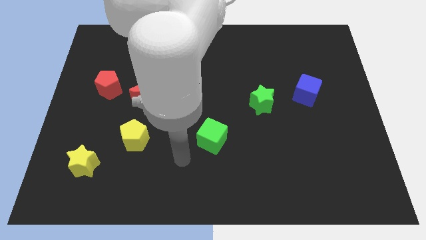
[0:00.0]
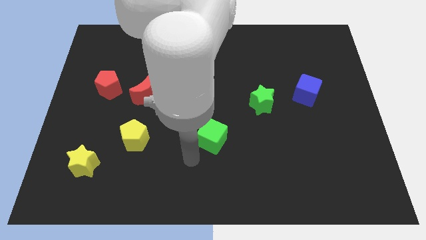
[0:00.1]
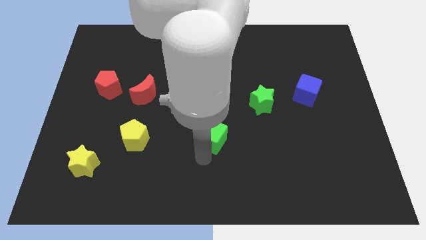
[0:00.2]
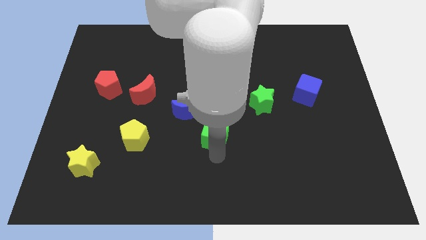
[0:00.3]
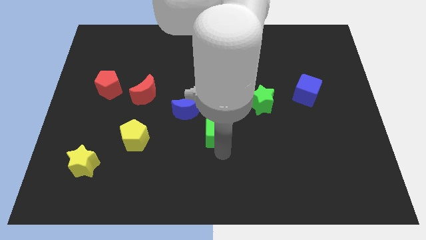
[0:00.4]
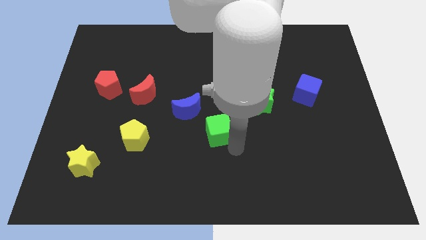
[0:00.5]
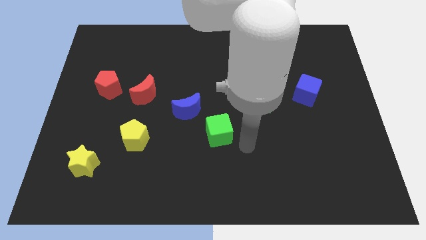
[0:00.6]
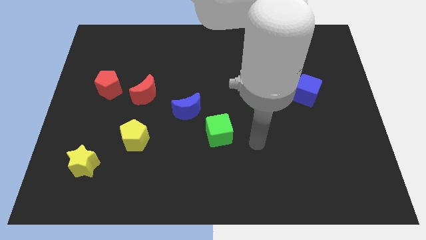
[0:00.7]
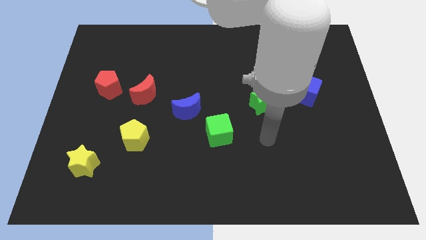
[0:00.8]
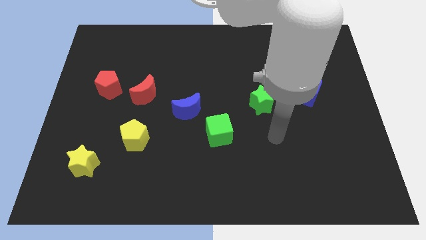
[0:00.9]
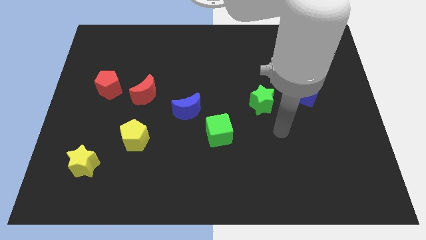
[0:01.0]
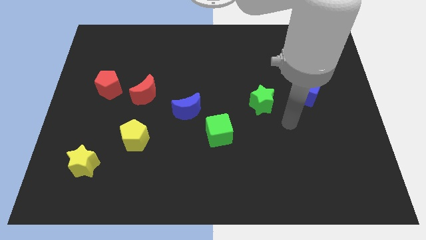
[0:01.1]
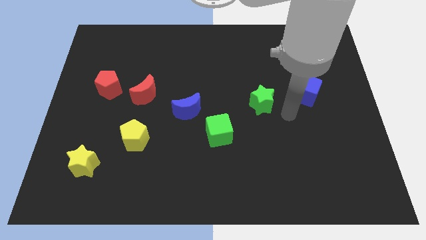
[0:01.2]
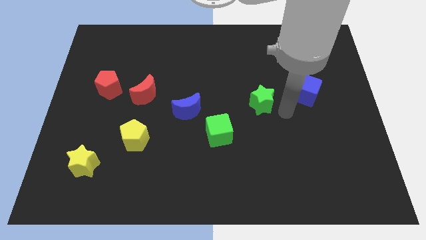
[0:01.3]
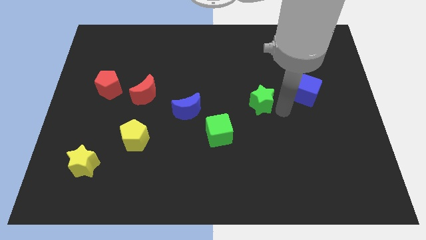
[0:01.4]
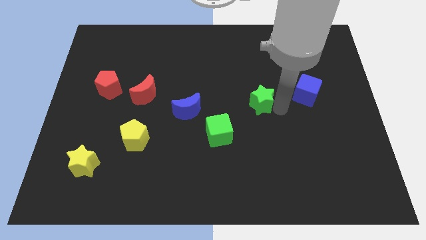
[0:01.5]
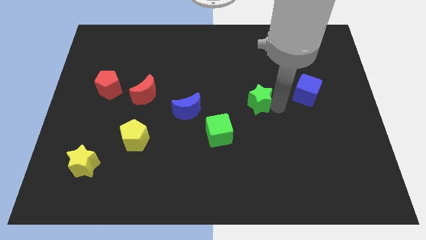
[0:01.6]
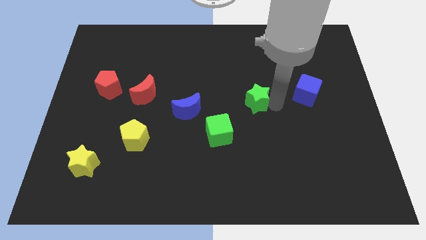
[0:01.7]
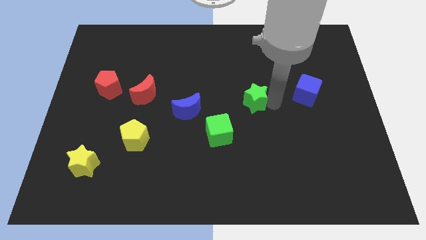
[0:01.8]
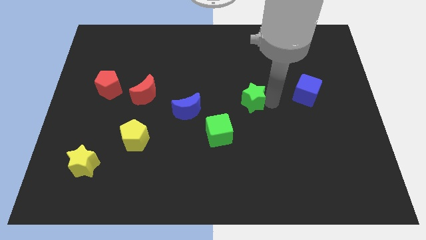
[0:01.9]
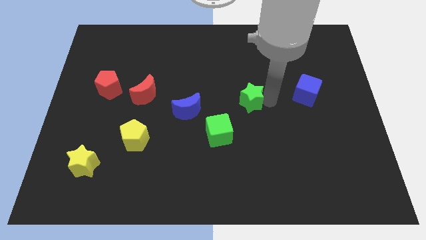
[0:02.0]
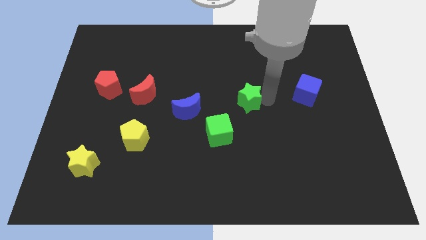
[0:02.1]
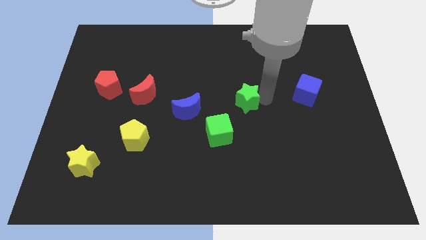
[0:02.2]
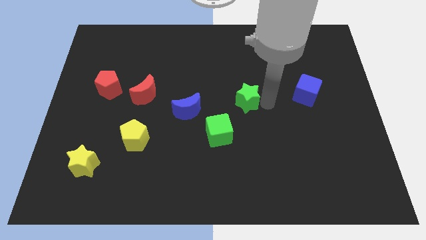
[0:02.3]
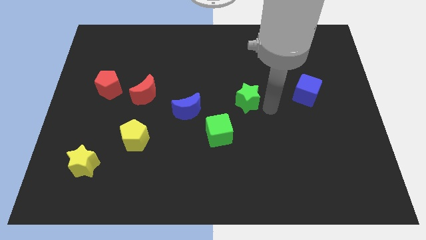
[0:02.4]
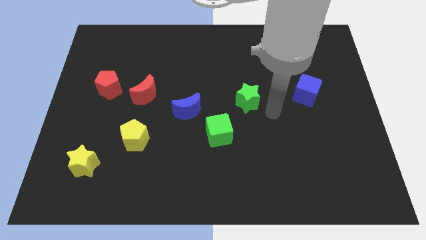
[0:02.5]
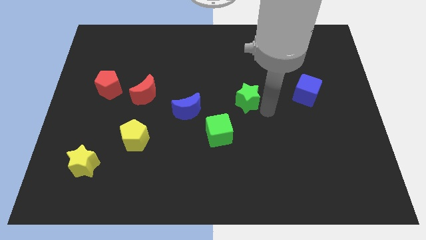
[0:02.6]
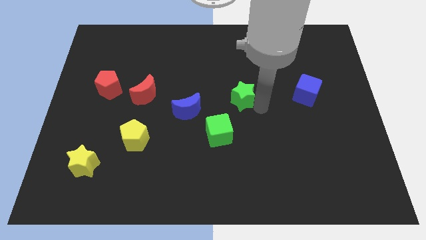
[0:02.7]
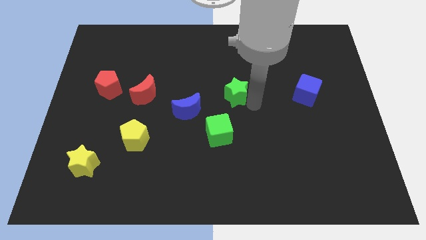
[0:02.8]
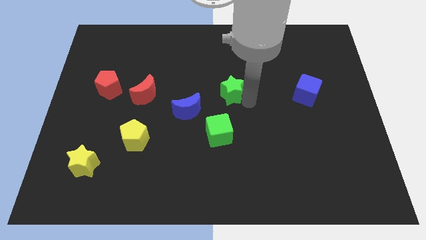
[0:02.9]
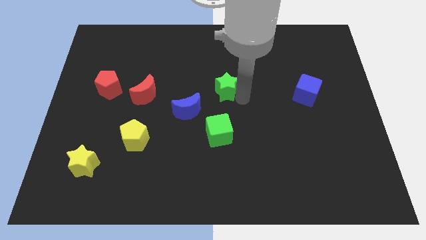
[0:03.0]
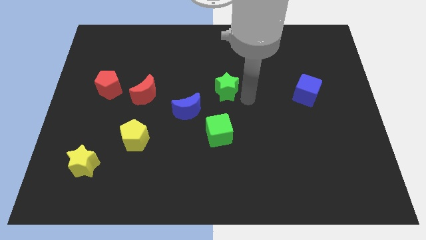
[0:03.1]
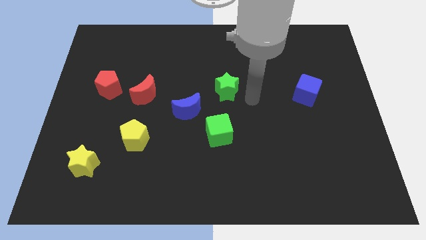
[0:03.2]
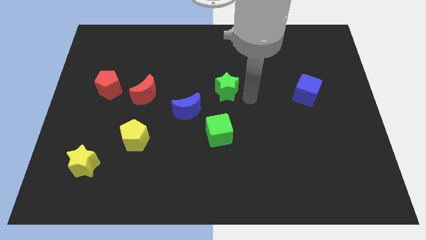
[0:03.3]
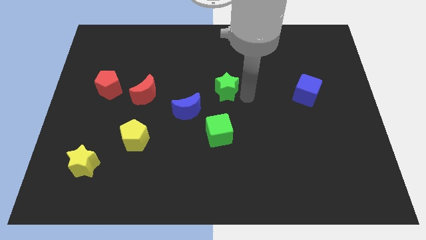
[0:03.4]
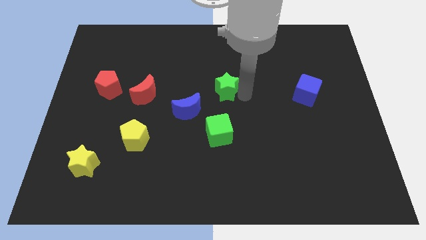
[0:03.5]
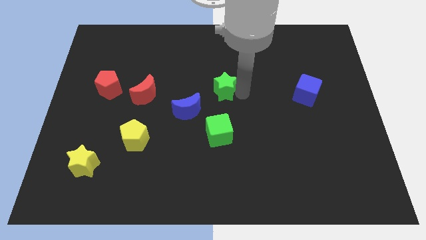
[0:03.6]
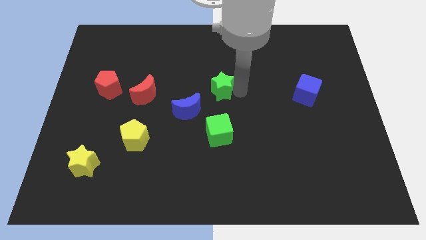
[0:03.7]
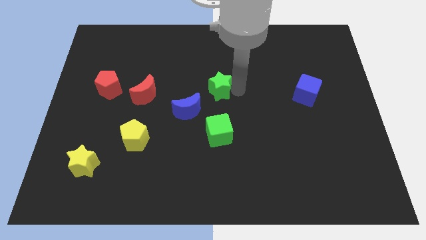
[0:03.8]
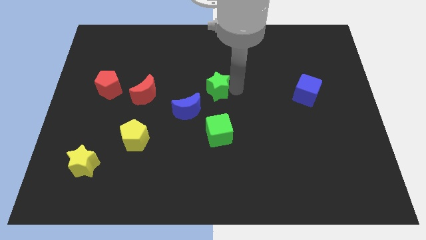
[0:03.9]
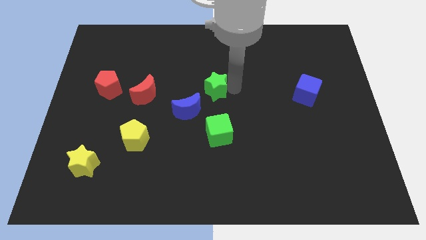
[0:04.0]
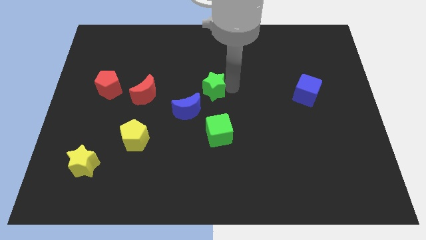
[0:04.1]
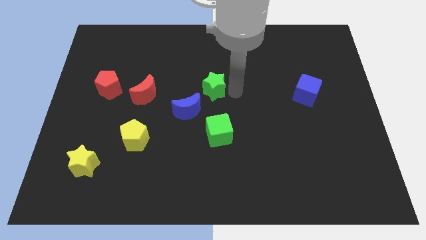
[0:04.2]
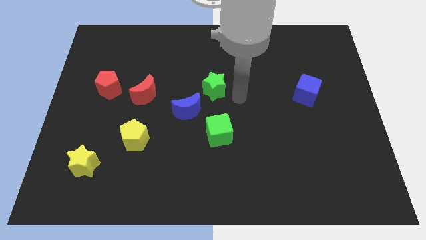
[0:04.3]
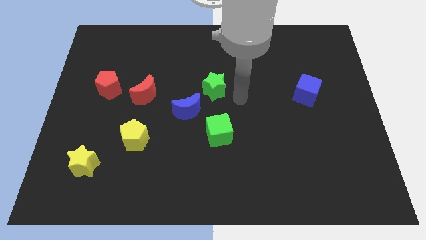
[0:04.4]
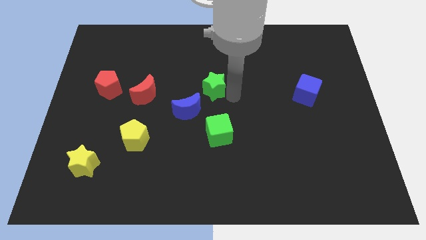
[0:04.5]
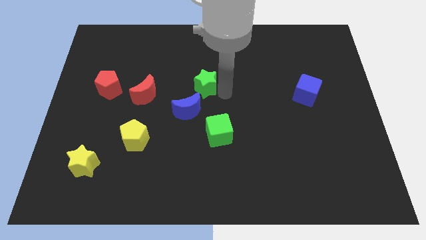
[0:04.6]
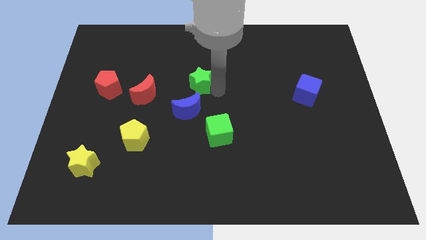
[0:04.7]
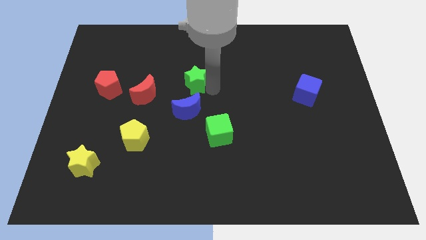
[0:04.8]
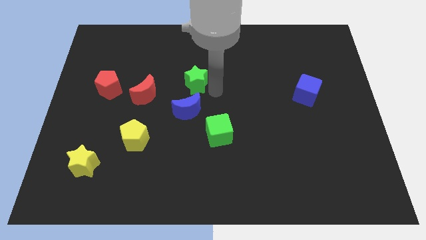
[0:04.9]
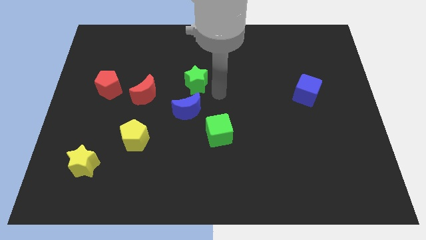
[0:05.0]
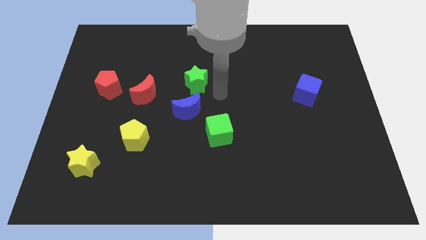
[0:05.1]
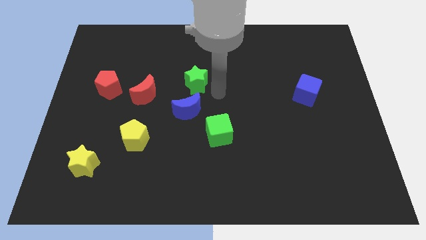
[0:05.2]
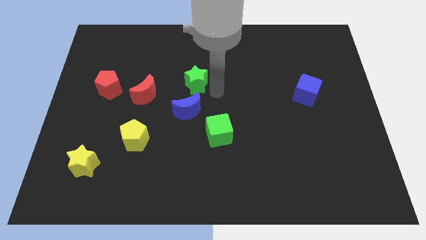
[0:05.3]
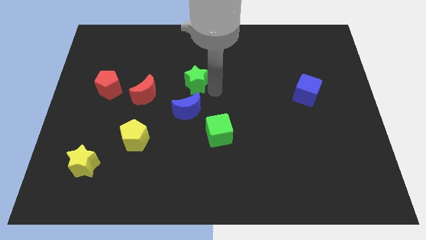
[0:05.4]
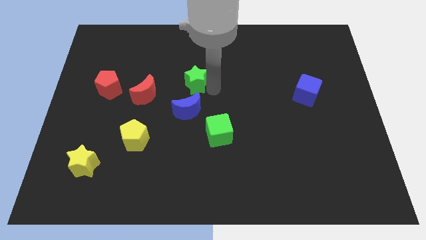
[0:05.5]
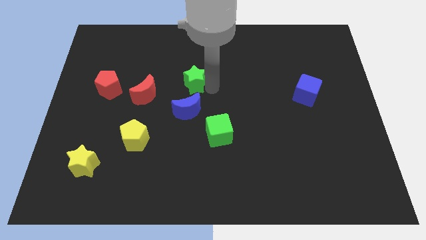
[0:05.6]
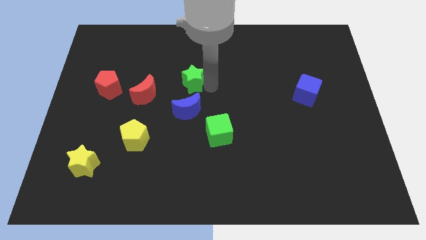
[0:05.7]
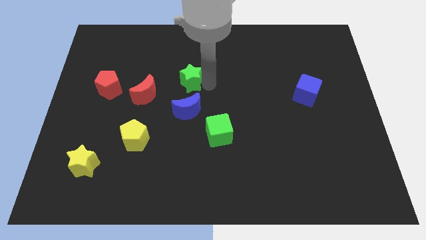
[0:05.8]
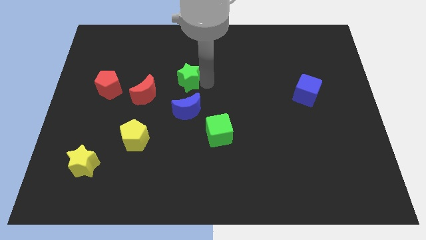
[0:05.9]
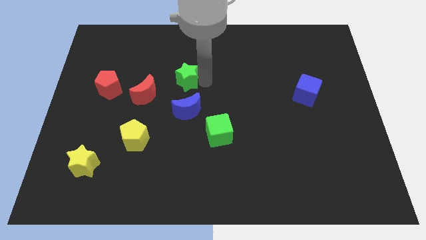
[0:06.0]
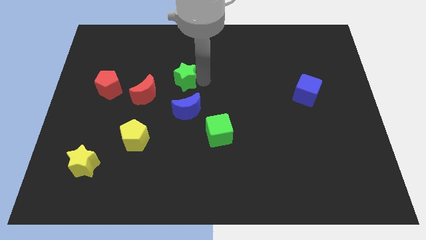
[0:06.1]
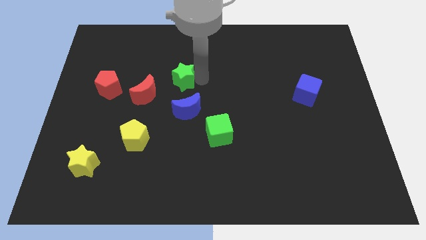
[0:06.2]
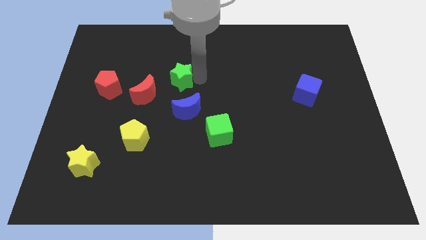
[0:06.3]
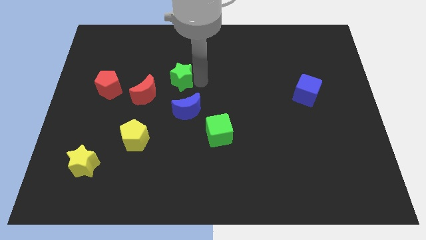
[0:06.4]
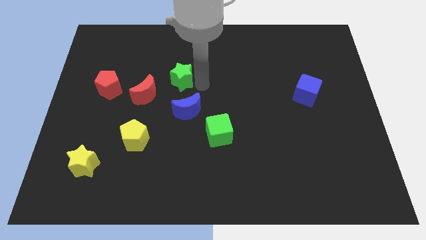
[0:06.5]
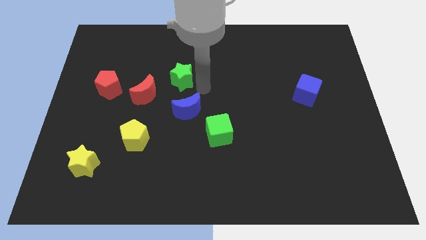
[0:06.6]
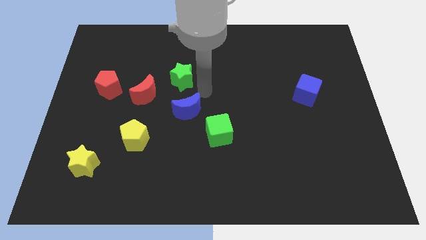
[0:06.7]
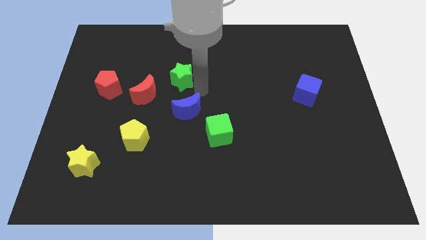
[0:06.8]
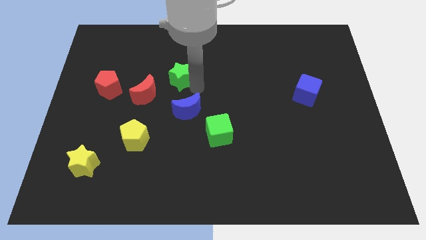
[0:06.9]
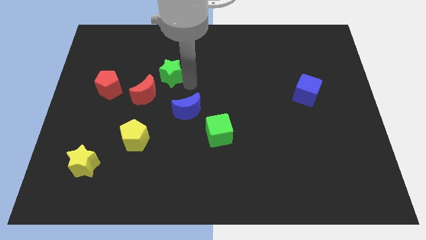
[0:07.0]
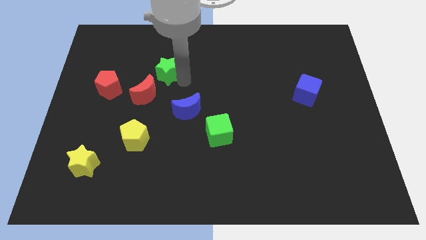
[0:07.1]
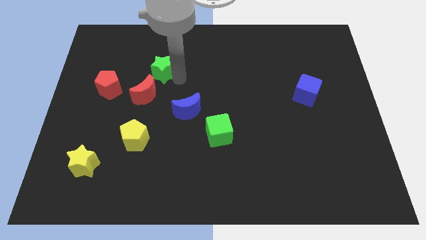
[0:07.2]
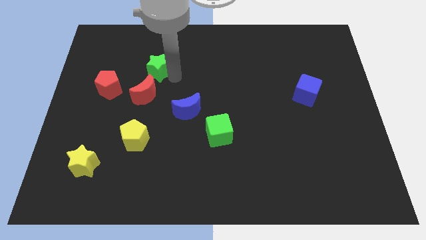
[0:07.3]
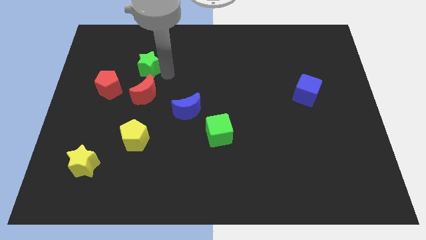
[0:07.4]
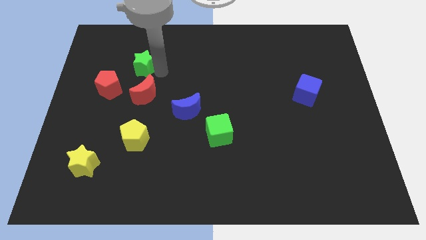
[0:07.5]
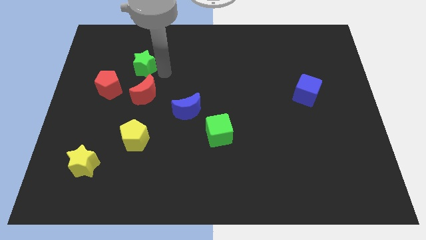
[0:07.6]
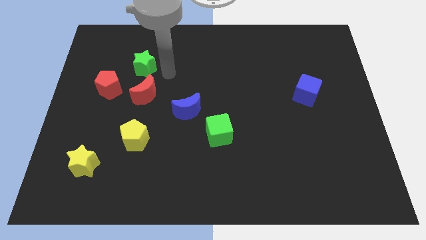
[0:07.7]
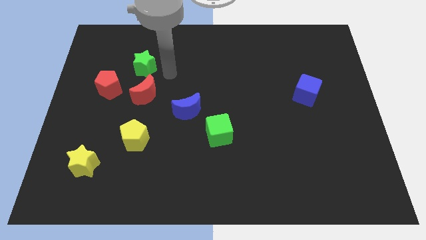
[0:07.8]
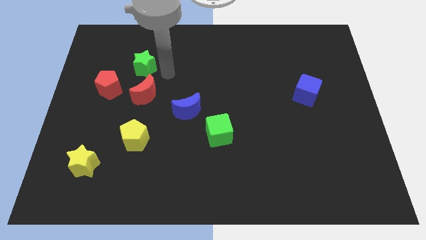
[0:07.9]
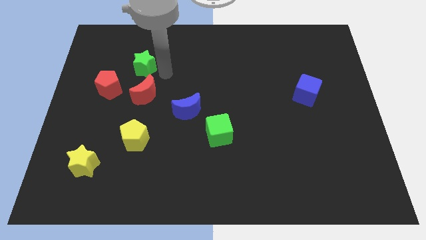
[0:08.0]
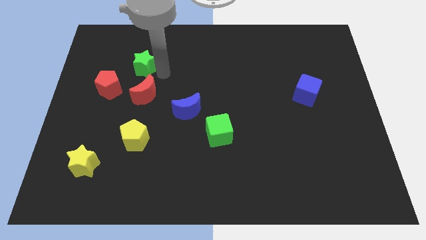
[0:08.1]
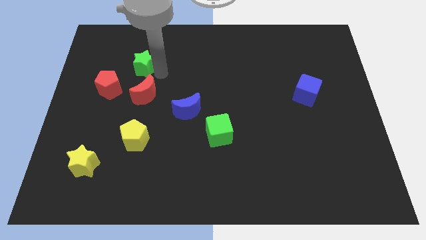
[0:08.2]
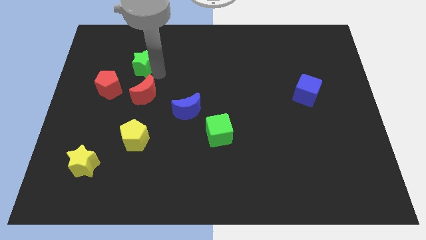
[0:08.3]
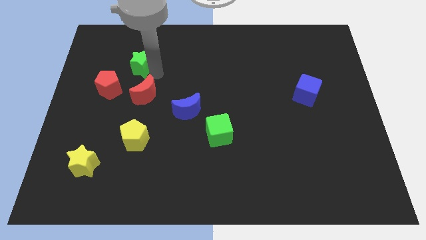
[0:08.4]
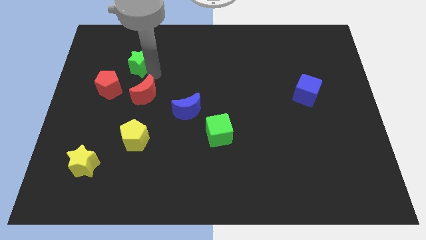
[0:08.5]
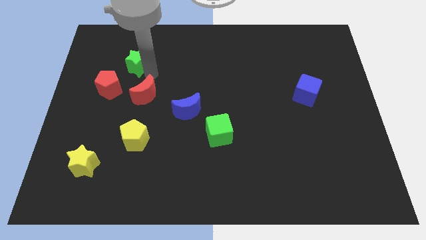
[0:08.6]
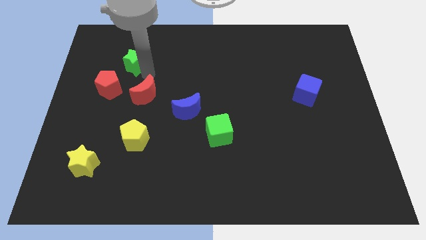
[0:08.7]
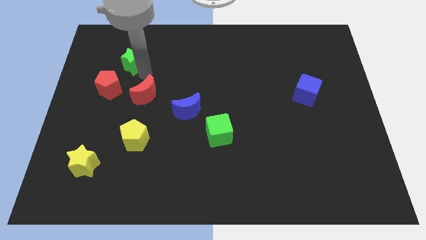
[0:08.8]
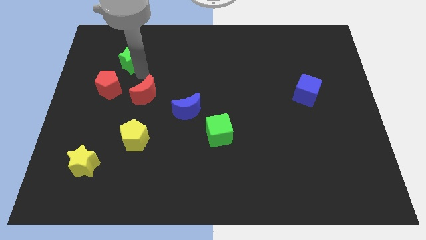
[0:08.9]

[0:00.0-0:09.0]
put the green star to the top of the red pentagon
